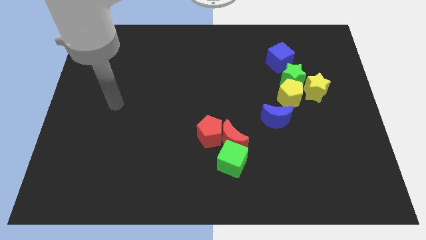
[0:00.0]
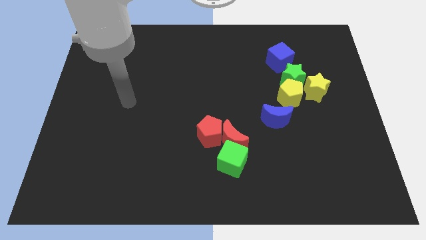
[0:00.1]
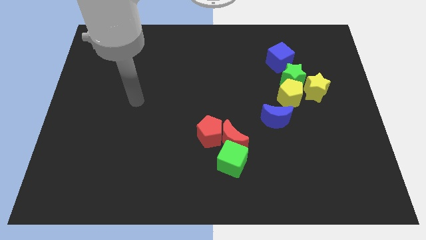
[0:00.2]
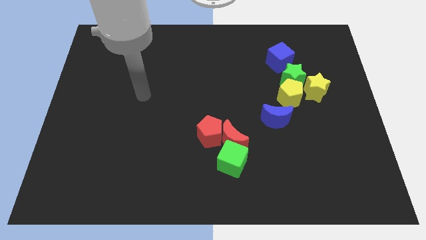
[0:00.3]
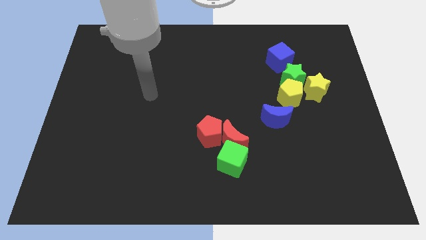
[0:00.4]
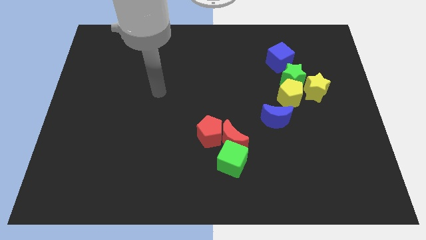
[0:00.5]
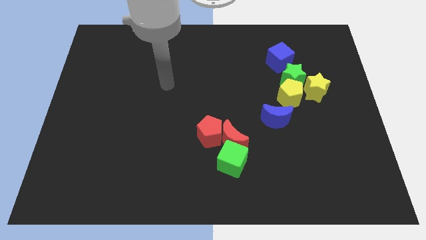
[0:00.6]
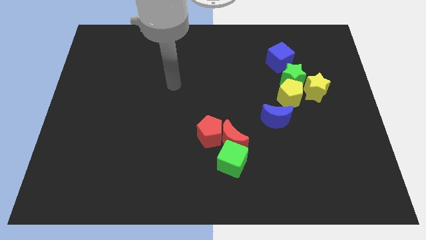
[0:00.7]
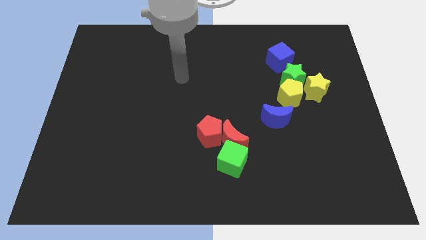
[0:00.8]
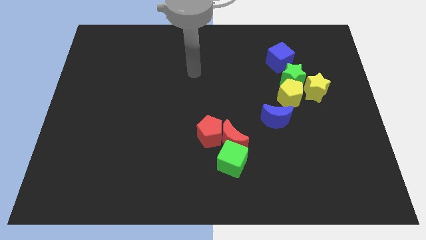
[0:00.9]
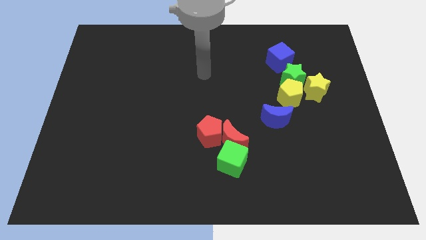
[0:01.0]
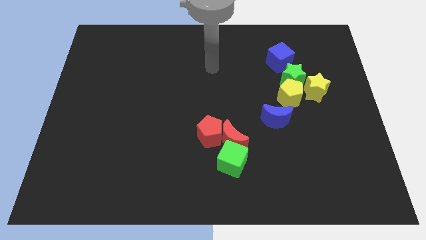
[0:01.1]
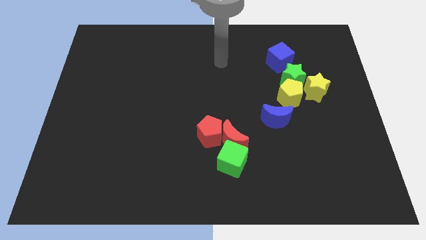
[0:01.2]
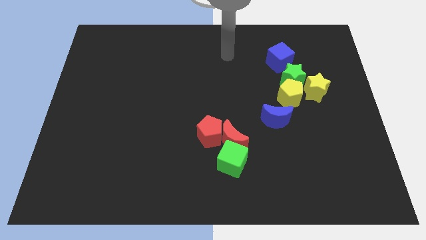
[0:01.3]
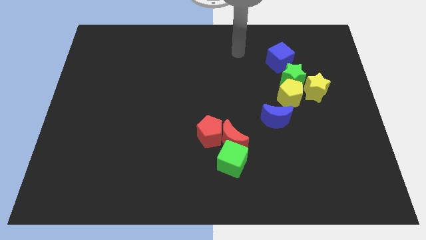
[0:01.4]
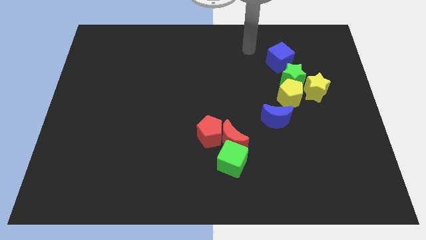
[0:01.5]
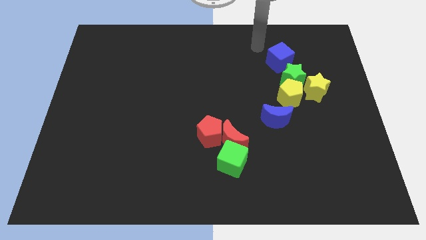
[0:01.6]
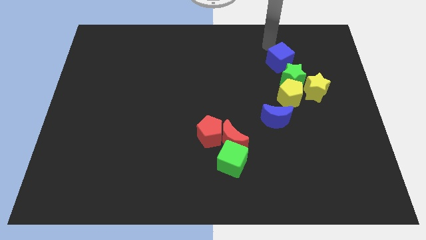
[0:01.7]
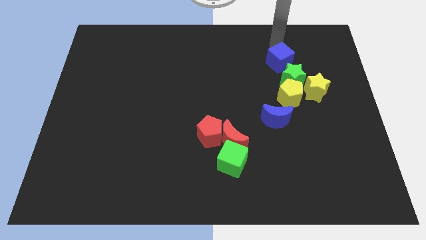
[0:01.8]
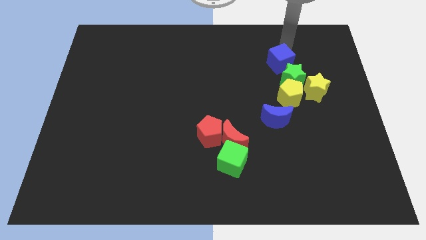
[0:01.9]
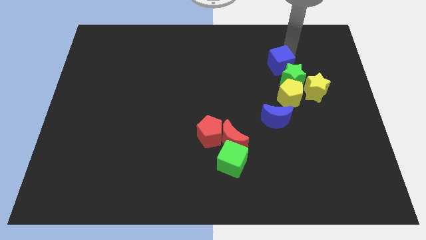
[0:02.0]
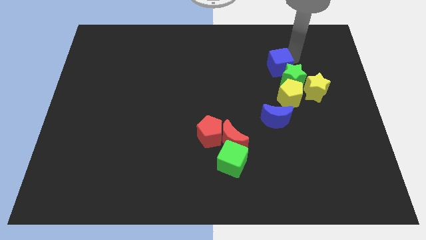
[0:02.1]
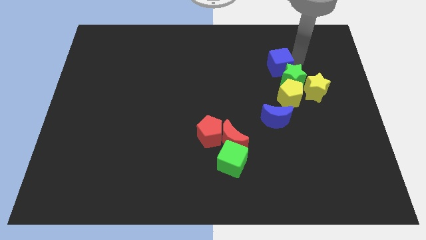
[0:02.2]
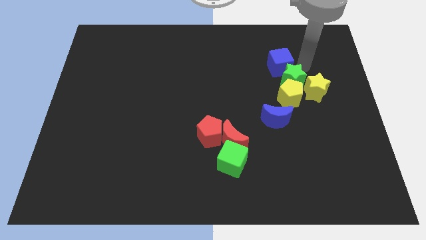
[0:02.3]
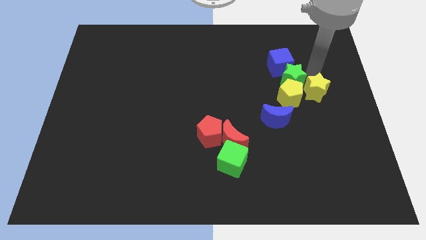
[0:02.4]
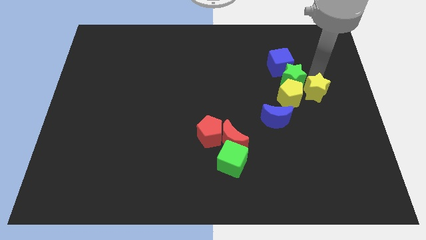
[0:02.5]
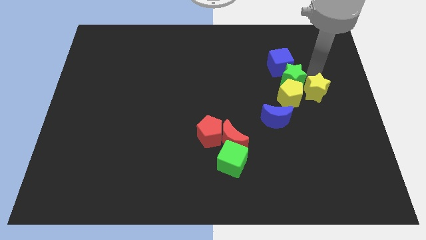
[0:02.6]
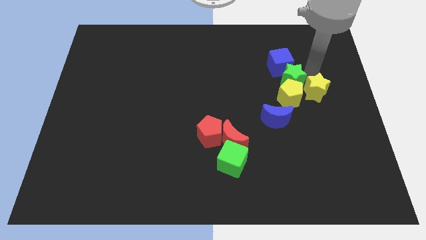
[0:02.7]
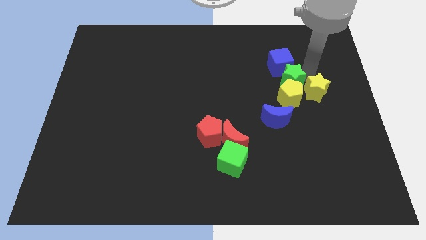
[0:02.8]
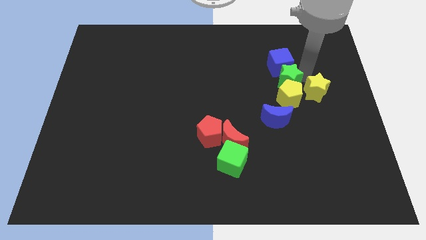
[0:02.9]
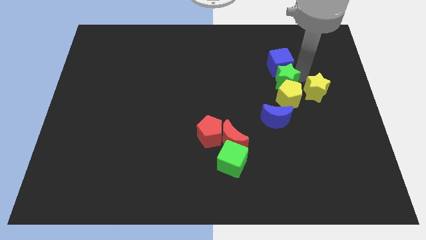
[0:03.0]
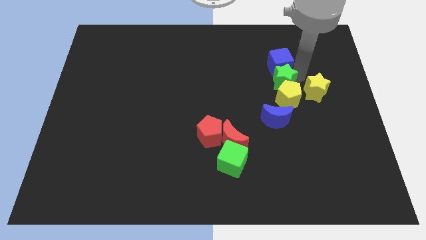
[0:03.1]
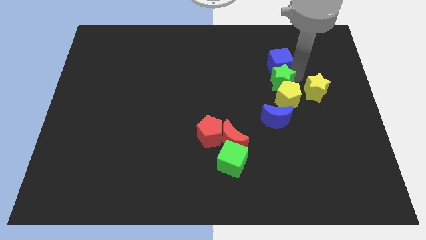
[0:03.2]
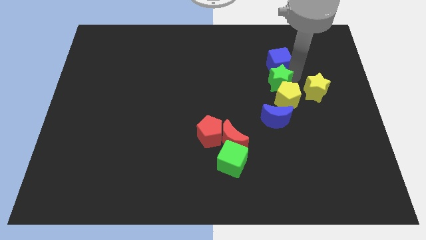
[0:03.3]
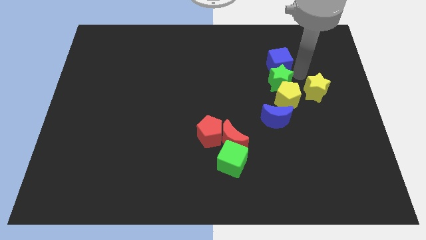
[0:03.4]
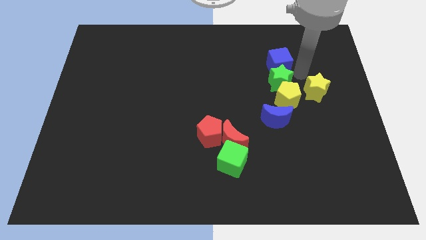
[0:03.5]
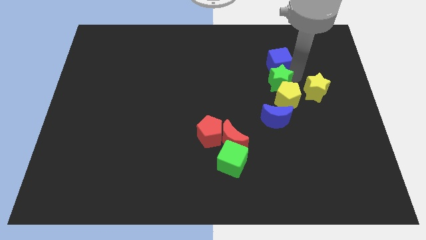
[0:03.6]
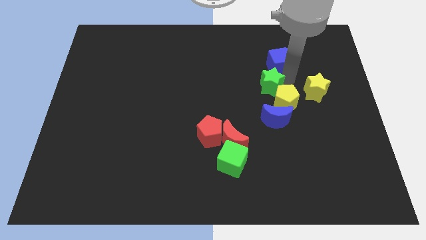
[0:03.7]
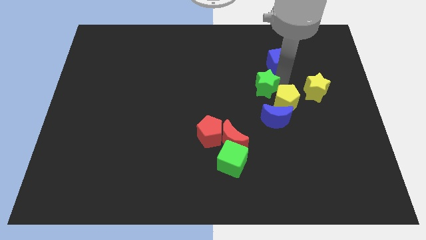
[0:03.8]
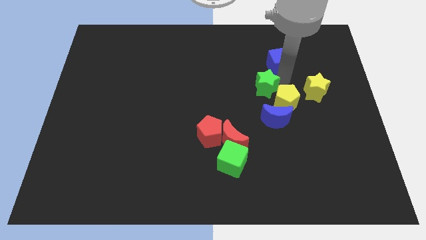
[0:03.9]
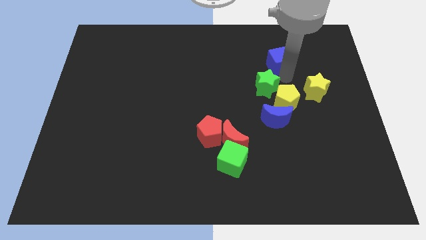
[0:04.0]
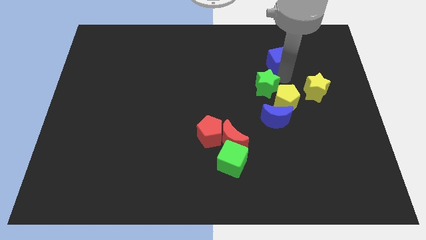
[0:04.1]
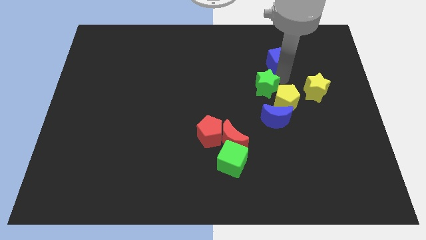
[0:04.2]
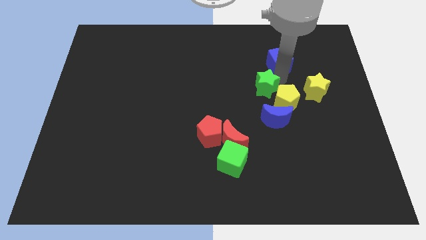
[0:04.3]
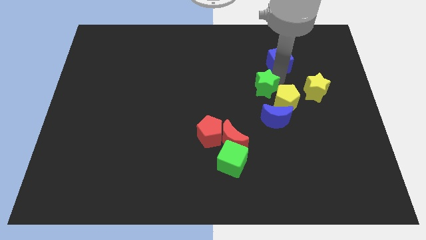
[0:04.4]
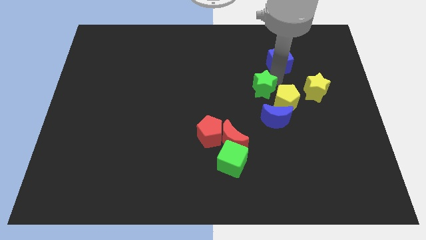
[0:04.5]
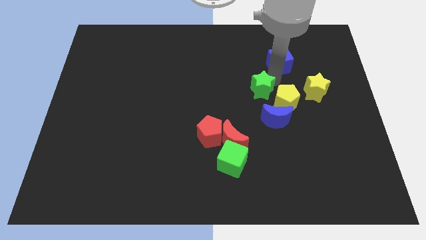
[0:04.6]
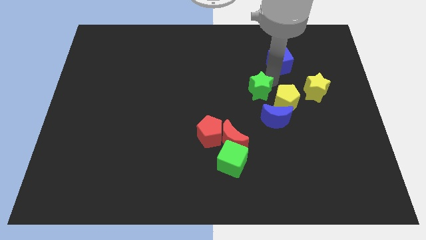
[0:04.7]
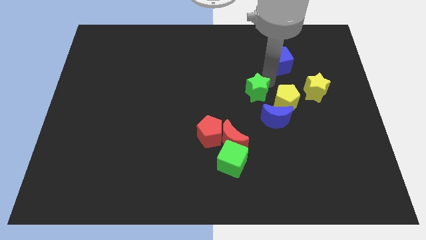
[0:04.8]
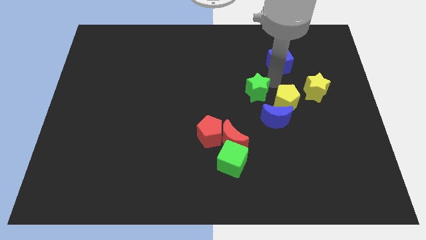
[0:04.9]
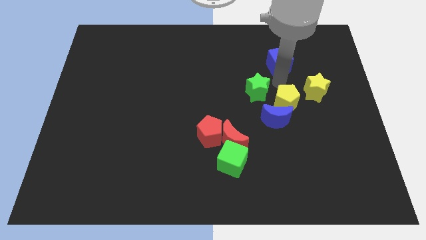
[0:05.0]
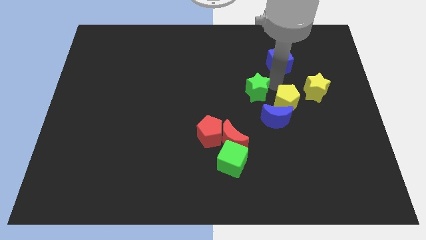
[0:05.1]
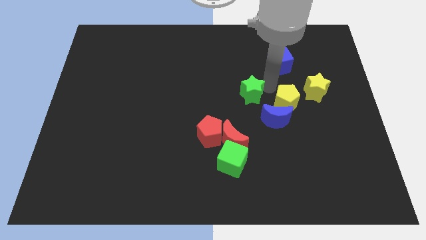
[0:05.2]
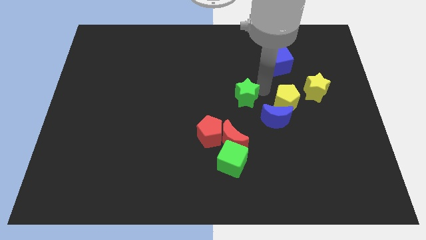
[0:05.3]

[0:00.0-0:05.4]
move the green star above the red moon

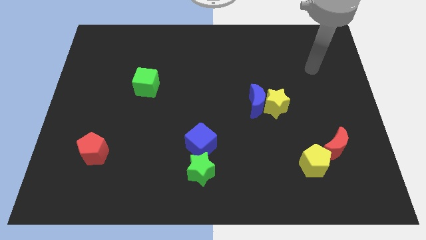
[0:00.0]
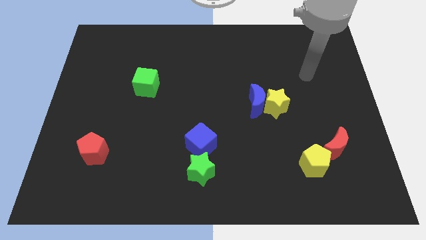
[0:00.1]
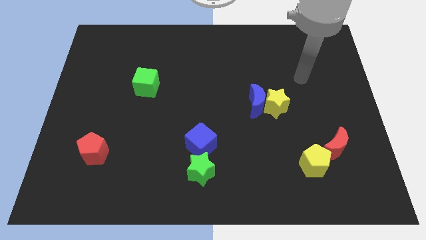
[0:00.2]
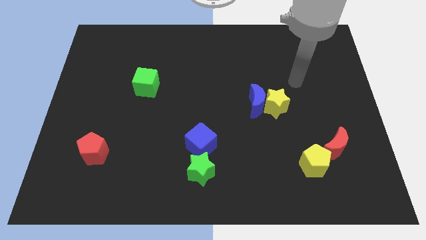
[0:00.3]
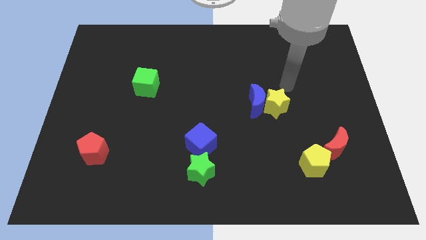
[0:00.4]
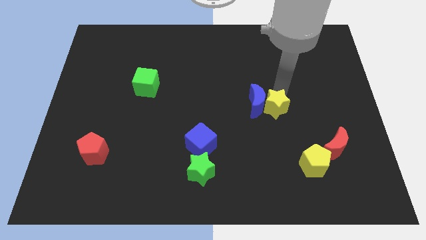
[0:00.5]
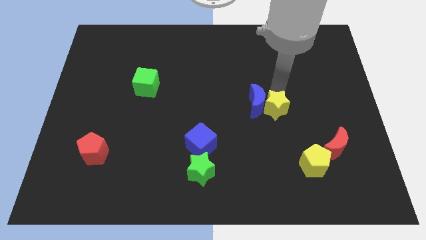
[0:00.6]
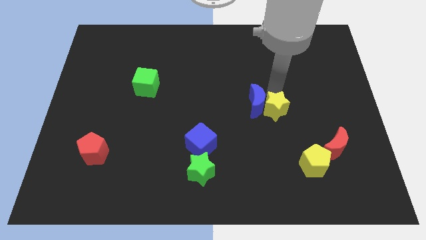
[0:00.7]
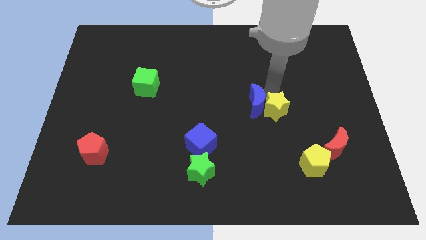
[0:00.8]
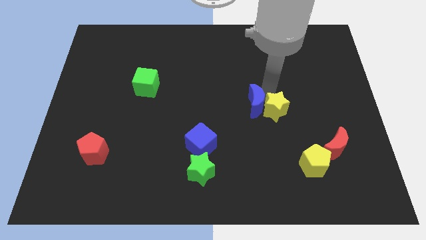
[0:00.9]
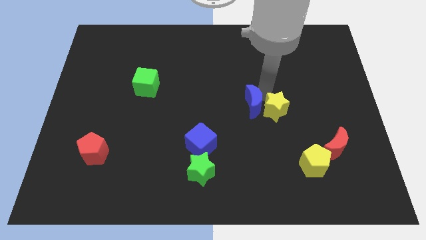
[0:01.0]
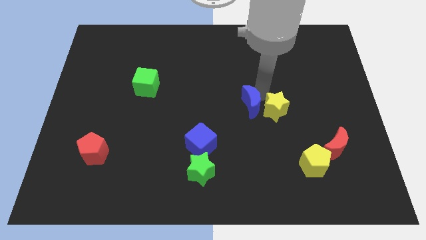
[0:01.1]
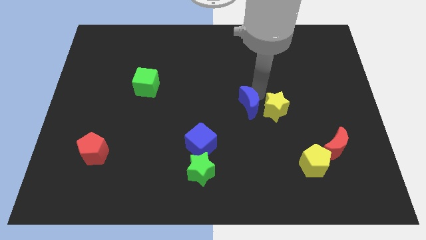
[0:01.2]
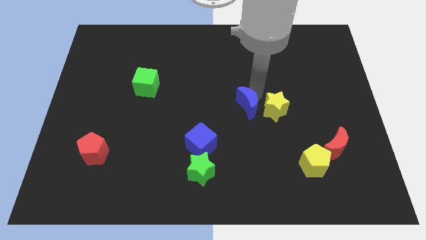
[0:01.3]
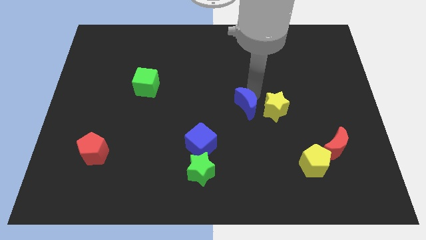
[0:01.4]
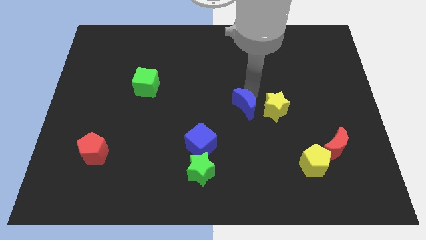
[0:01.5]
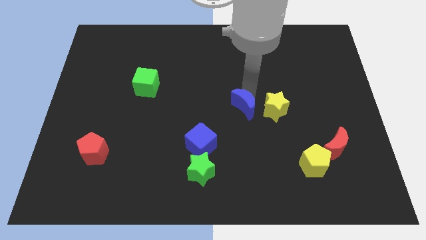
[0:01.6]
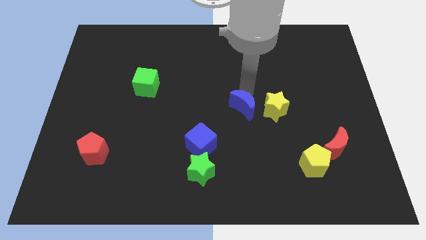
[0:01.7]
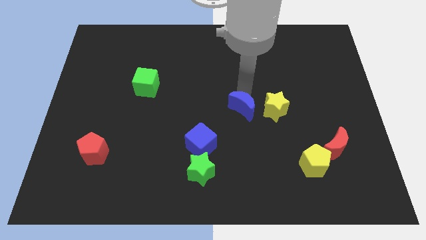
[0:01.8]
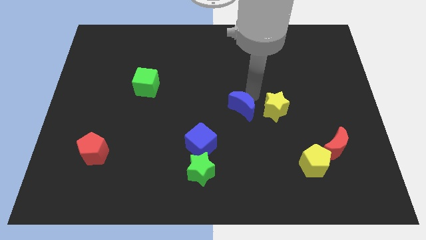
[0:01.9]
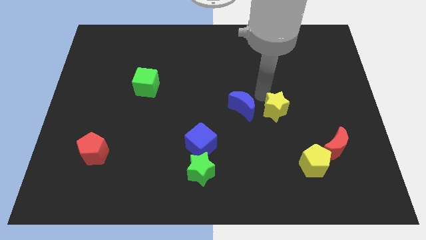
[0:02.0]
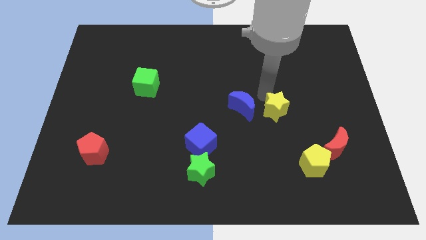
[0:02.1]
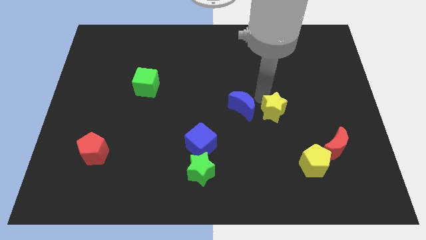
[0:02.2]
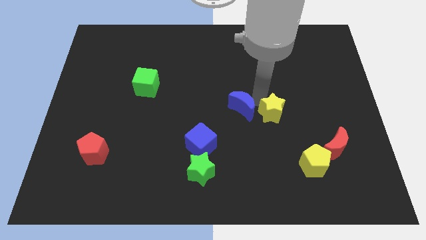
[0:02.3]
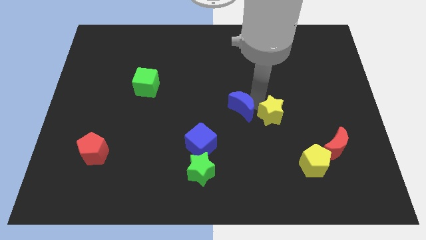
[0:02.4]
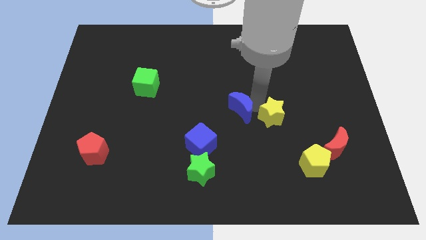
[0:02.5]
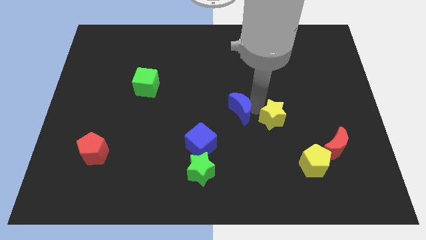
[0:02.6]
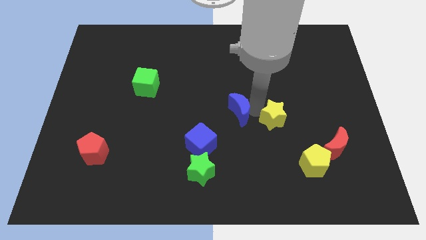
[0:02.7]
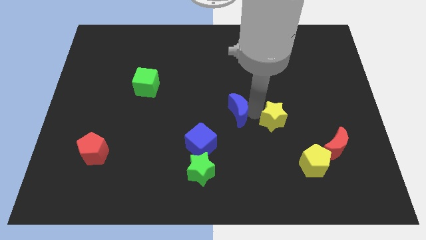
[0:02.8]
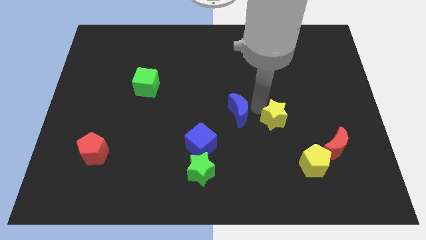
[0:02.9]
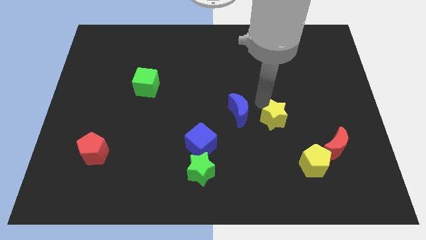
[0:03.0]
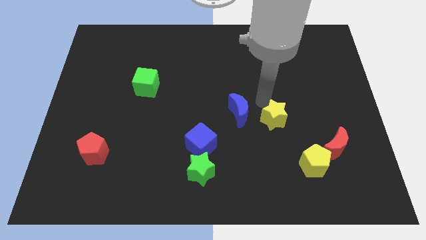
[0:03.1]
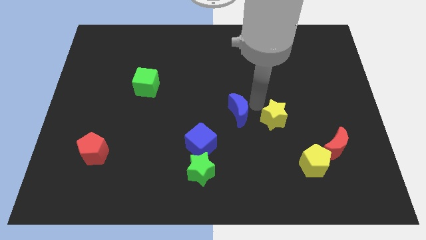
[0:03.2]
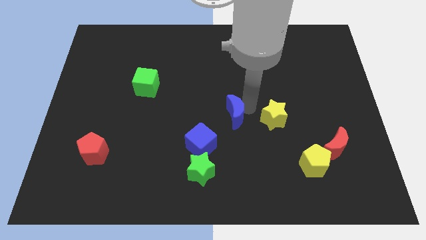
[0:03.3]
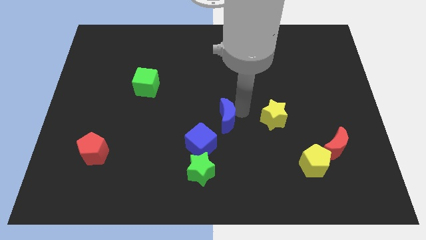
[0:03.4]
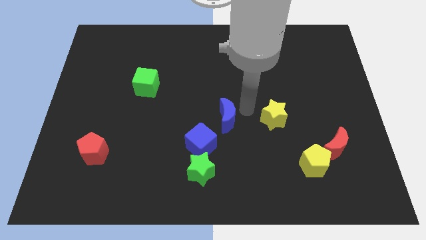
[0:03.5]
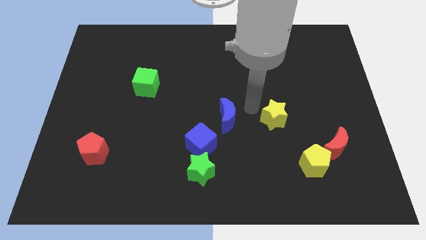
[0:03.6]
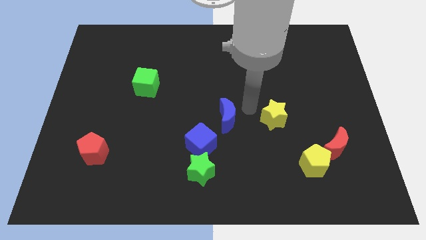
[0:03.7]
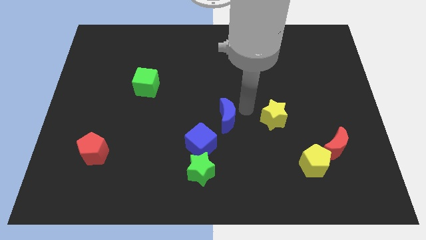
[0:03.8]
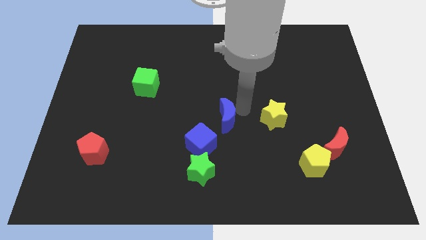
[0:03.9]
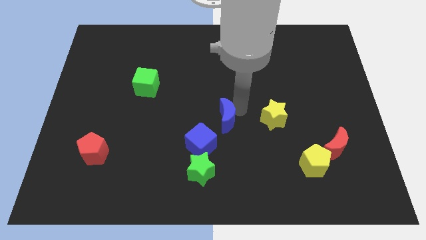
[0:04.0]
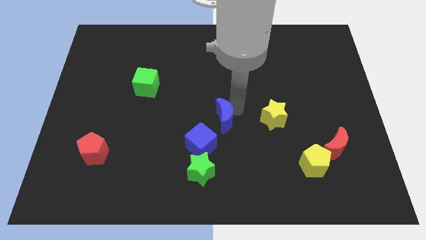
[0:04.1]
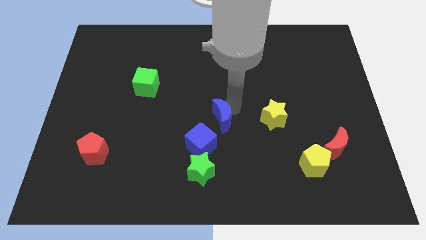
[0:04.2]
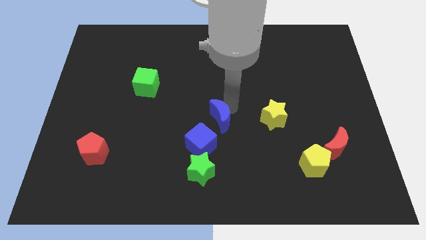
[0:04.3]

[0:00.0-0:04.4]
put the blue moon to the top side of the green star
